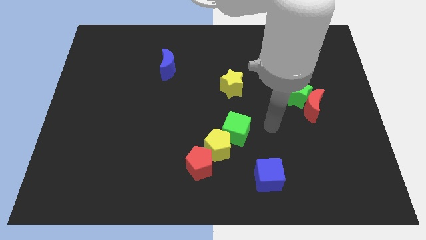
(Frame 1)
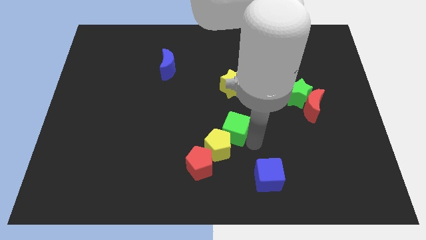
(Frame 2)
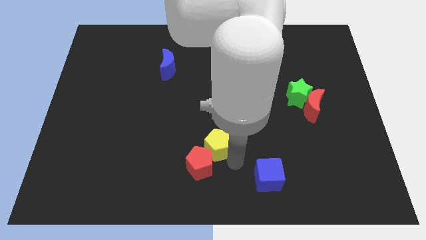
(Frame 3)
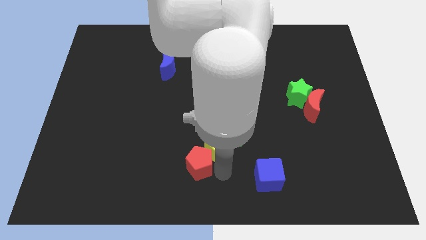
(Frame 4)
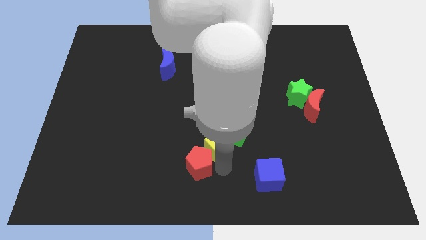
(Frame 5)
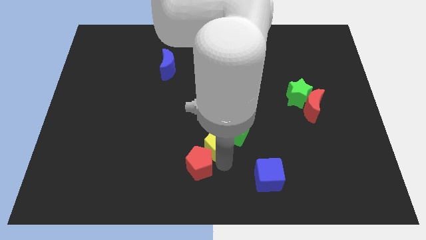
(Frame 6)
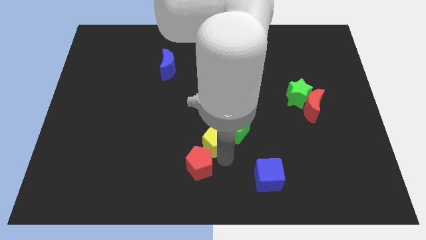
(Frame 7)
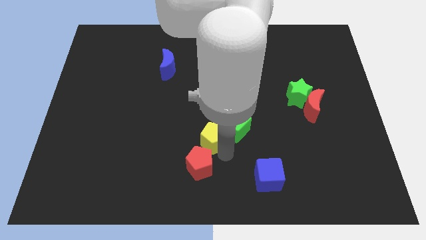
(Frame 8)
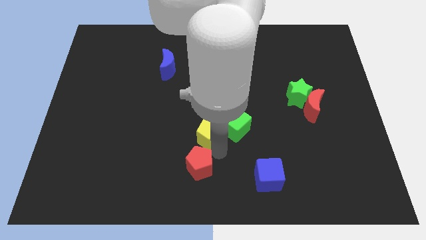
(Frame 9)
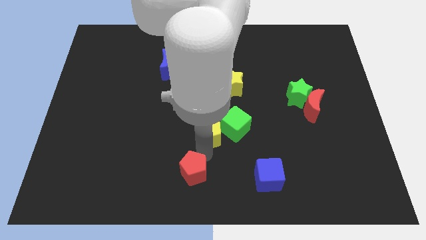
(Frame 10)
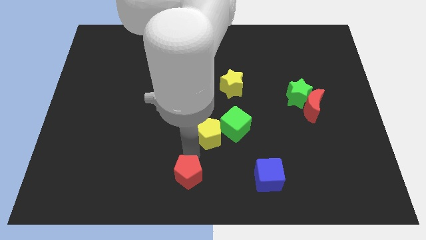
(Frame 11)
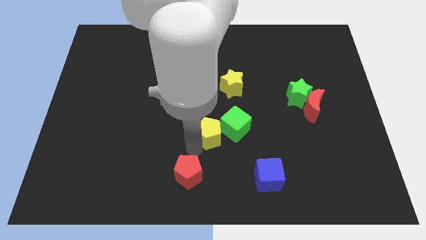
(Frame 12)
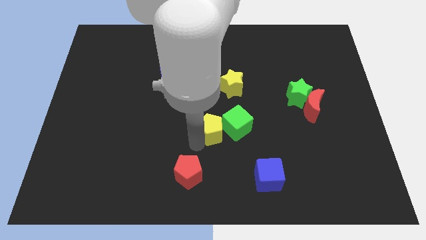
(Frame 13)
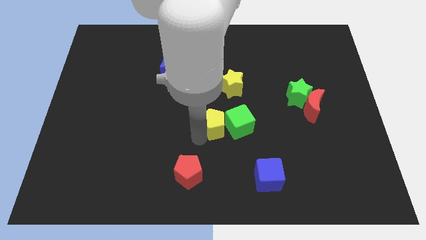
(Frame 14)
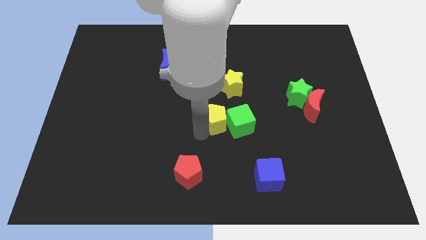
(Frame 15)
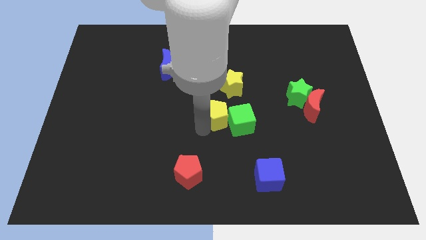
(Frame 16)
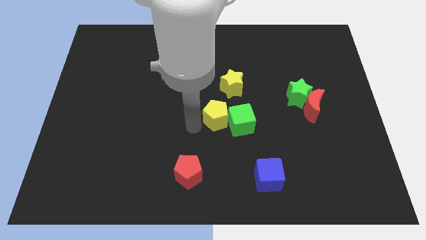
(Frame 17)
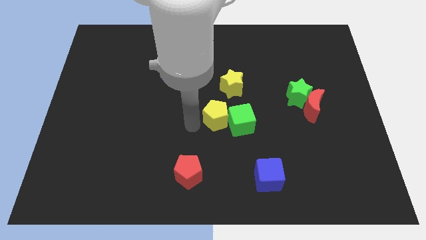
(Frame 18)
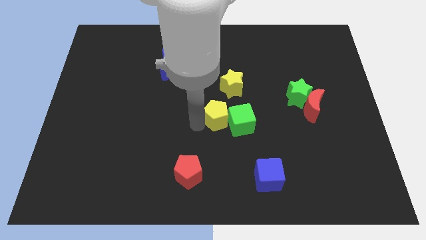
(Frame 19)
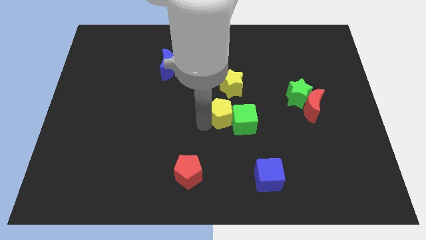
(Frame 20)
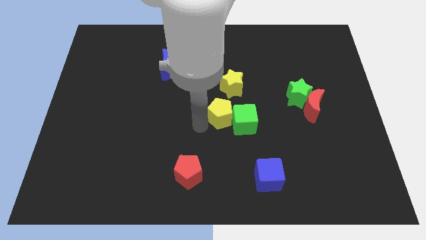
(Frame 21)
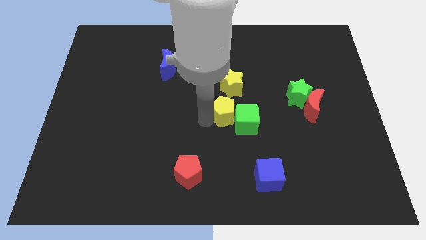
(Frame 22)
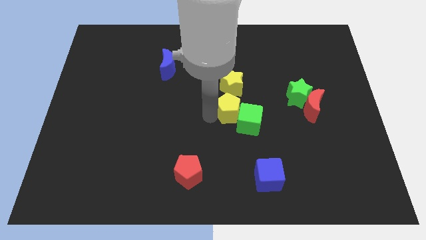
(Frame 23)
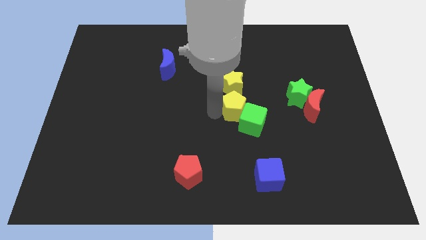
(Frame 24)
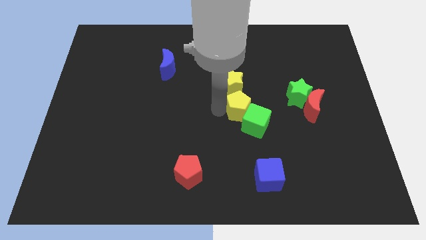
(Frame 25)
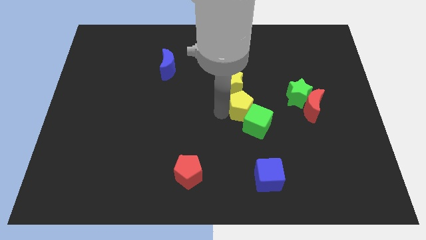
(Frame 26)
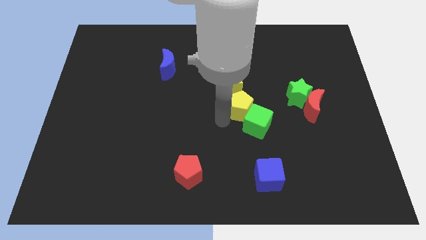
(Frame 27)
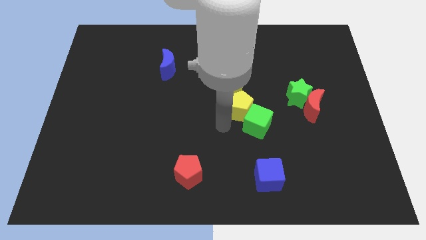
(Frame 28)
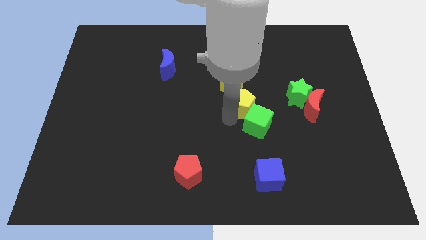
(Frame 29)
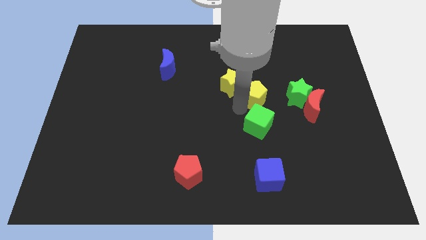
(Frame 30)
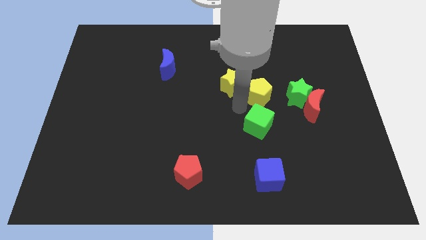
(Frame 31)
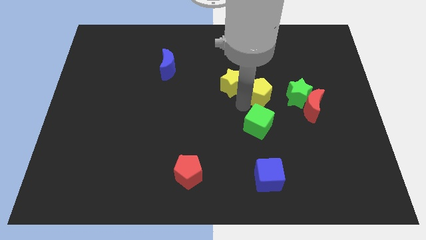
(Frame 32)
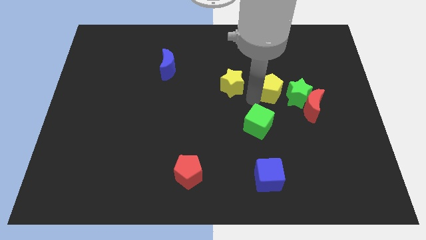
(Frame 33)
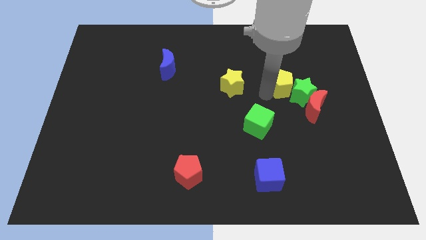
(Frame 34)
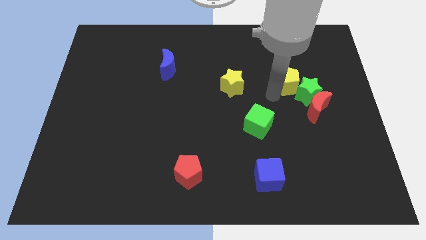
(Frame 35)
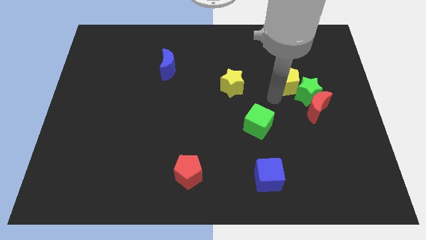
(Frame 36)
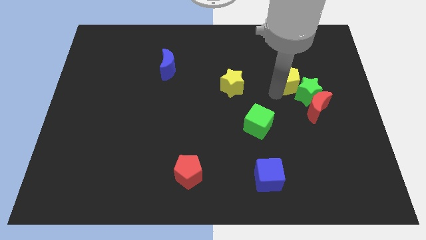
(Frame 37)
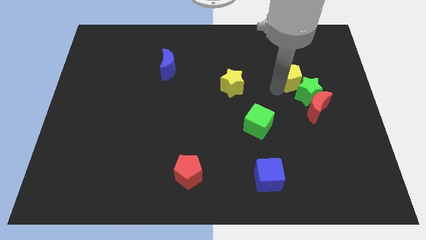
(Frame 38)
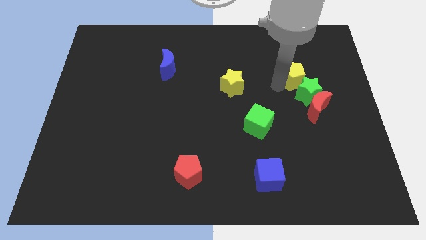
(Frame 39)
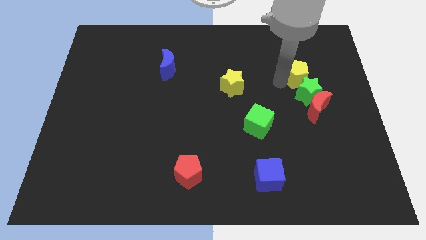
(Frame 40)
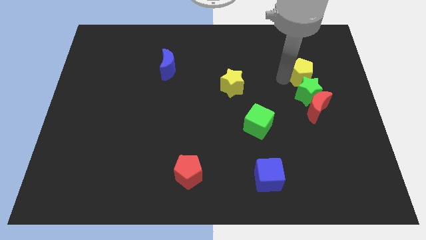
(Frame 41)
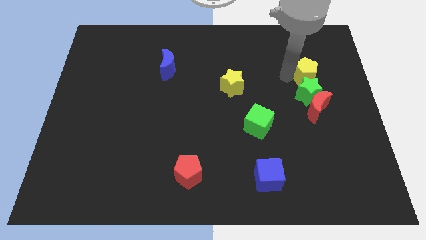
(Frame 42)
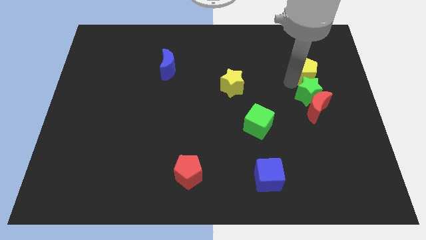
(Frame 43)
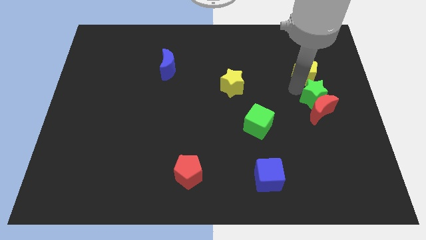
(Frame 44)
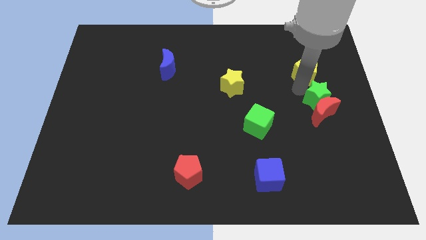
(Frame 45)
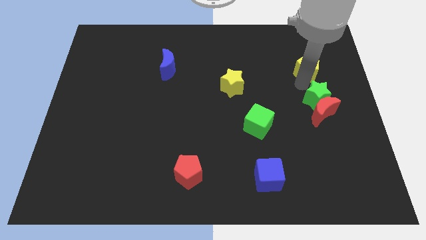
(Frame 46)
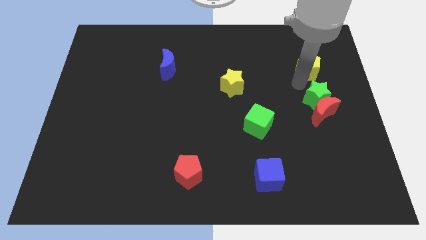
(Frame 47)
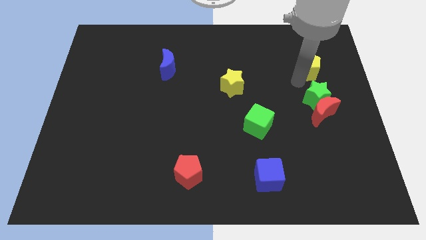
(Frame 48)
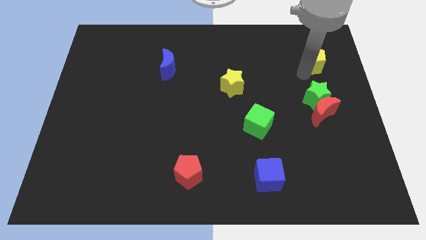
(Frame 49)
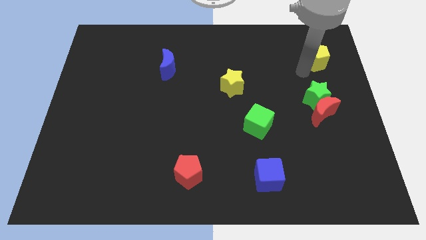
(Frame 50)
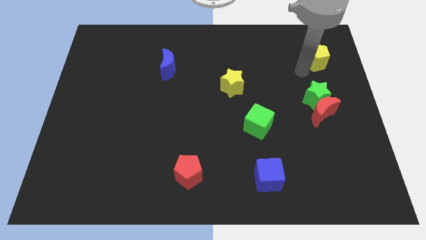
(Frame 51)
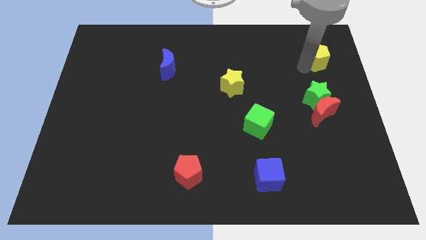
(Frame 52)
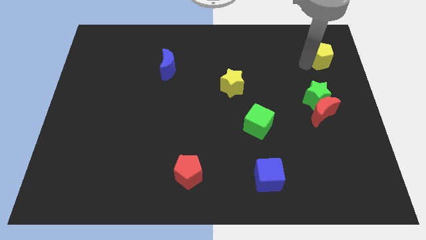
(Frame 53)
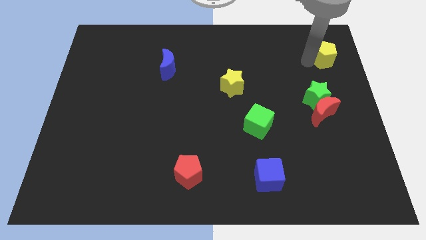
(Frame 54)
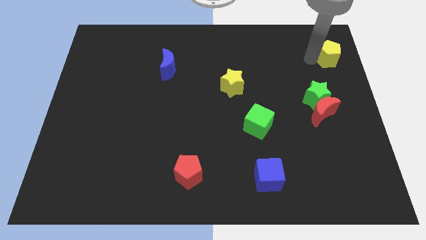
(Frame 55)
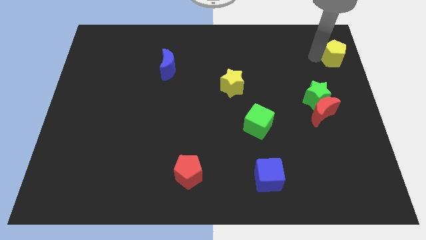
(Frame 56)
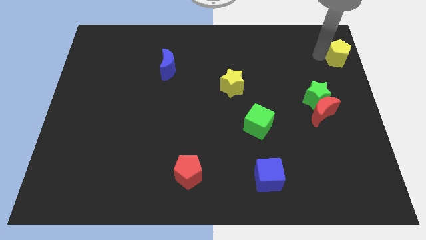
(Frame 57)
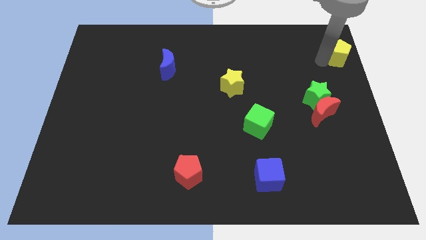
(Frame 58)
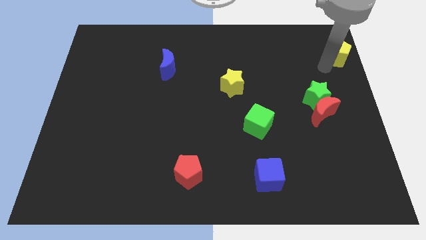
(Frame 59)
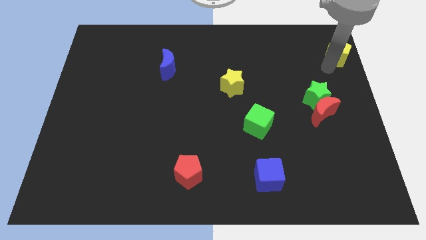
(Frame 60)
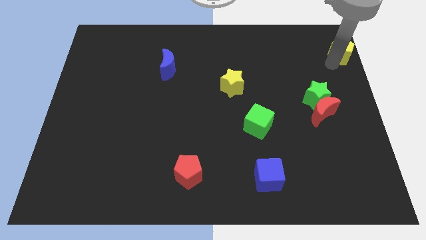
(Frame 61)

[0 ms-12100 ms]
slide the yellow pentagon to the top right of the board

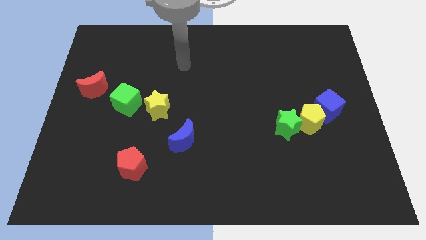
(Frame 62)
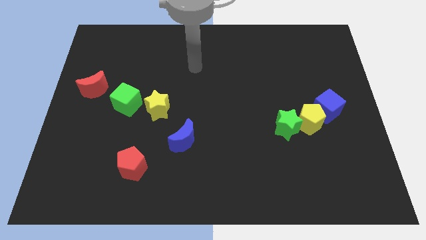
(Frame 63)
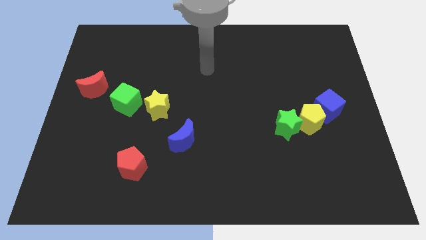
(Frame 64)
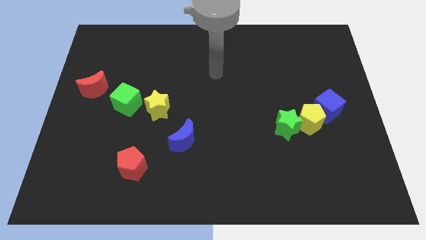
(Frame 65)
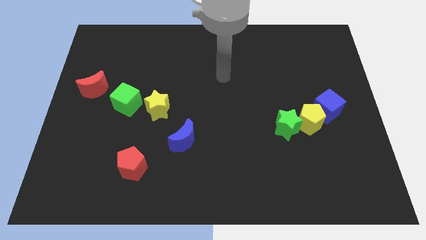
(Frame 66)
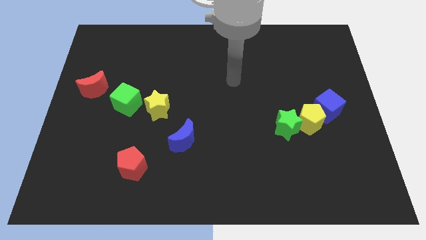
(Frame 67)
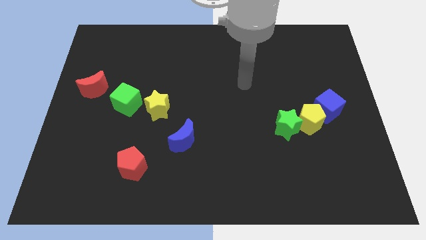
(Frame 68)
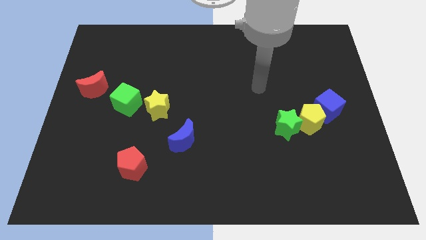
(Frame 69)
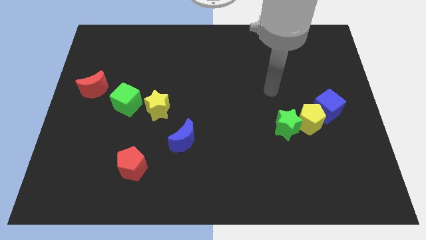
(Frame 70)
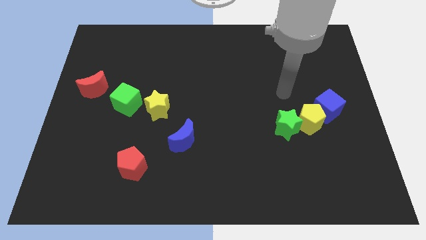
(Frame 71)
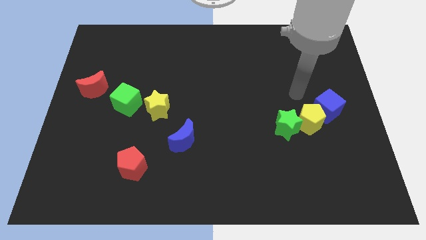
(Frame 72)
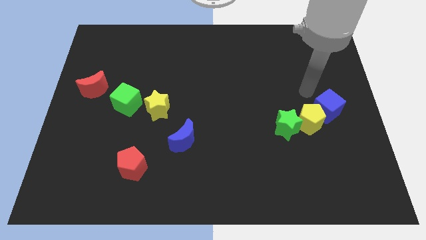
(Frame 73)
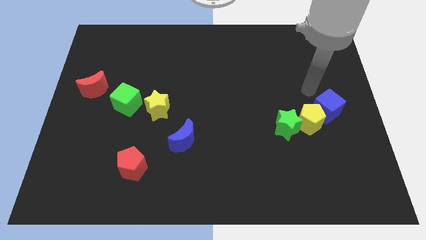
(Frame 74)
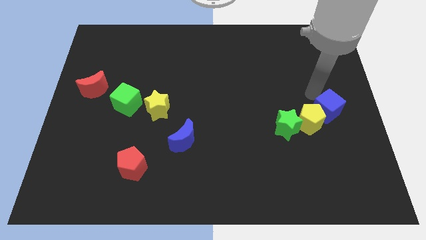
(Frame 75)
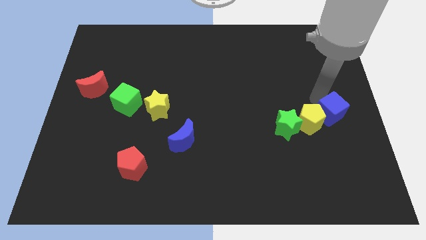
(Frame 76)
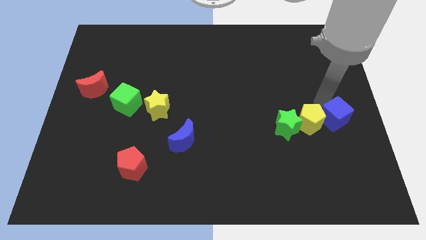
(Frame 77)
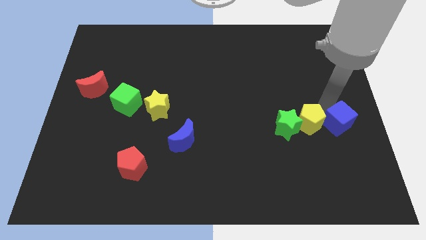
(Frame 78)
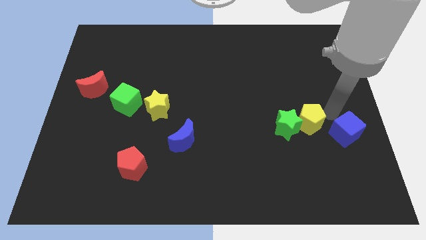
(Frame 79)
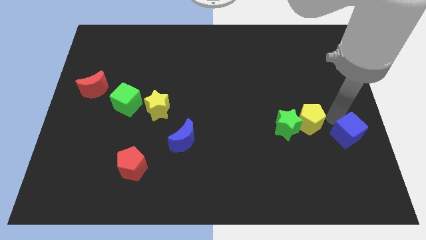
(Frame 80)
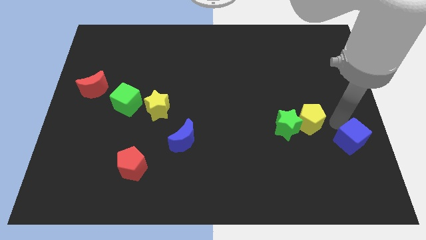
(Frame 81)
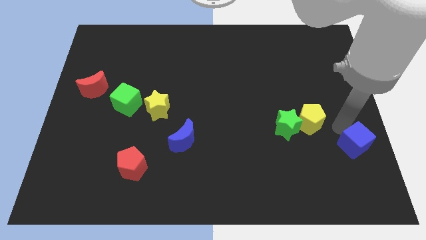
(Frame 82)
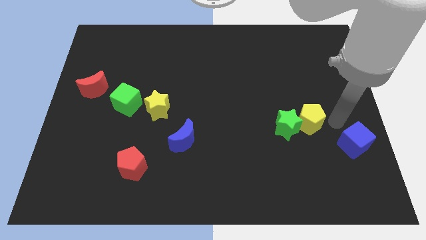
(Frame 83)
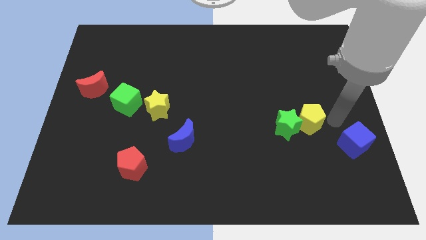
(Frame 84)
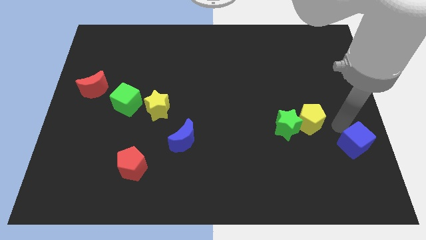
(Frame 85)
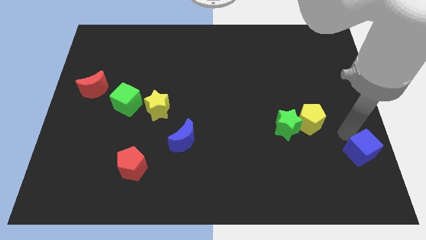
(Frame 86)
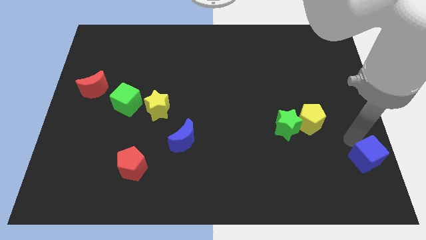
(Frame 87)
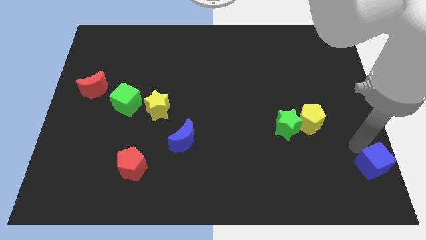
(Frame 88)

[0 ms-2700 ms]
move the blue cube to the lower right corner
